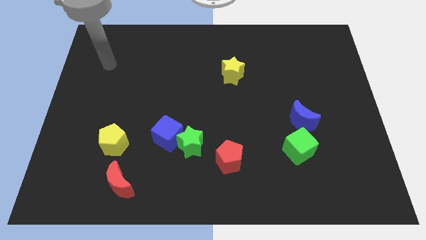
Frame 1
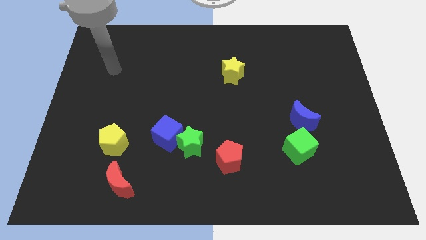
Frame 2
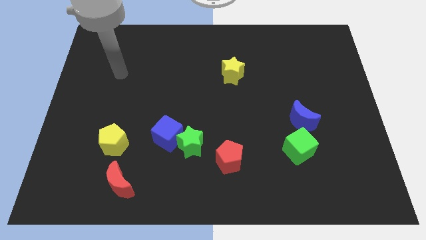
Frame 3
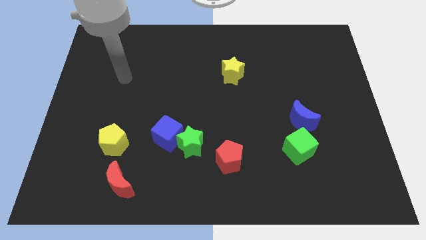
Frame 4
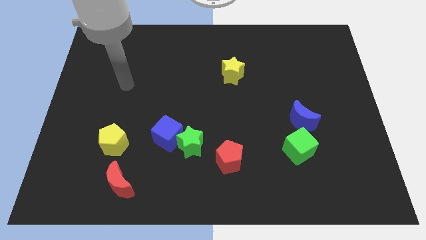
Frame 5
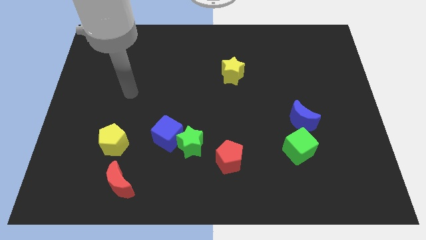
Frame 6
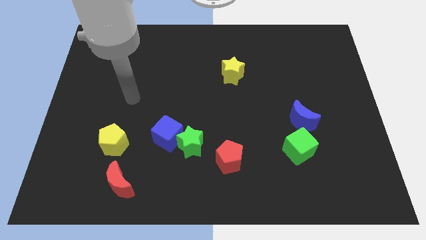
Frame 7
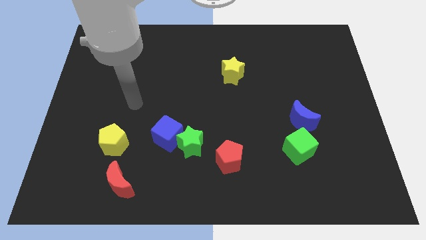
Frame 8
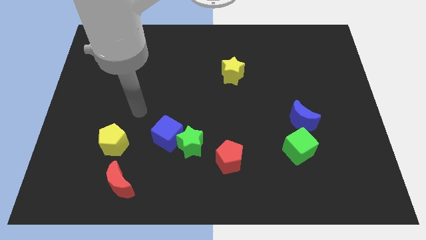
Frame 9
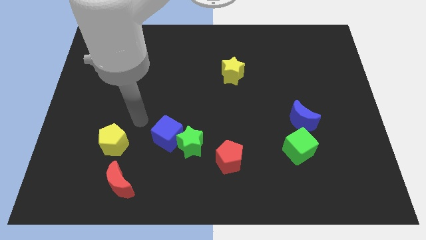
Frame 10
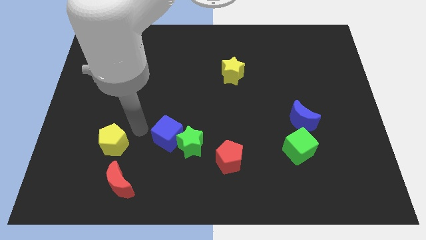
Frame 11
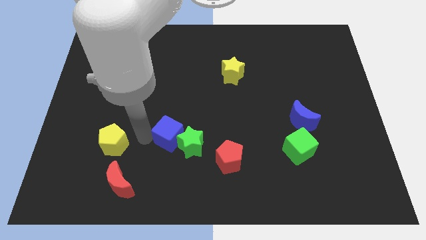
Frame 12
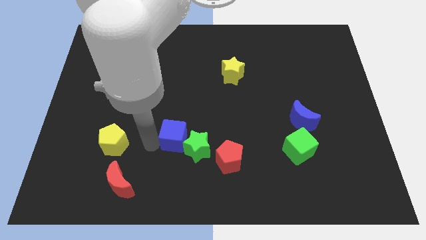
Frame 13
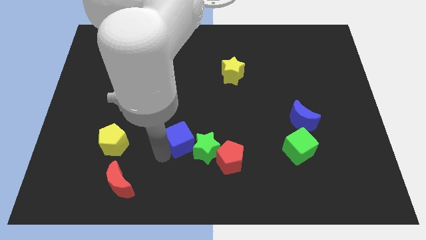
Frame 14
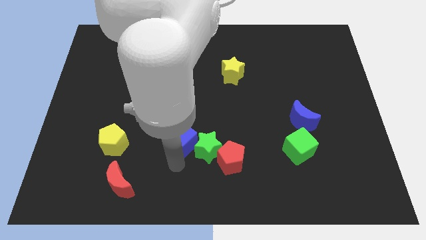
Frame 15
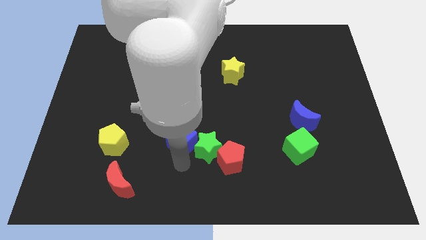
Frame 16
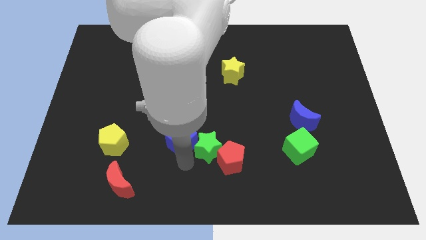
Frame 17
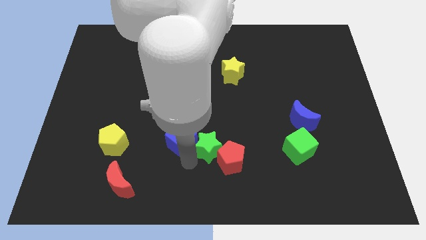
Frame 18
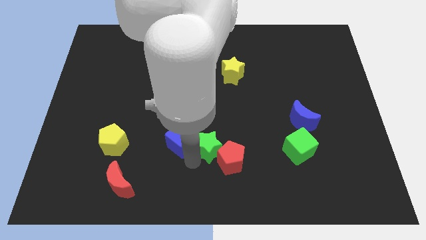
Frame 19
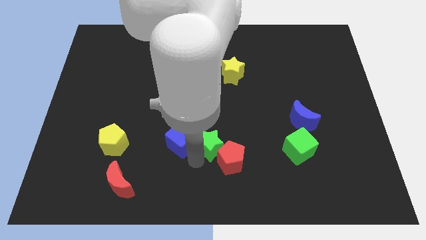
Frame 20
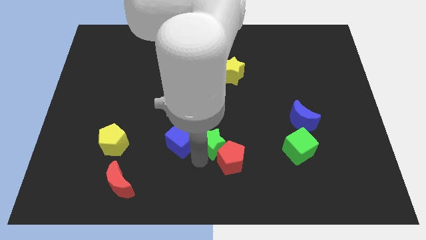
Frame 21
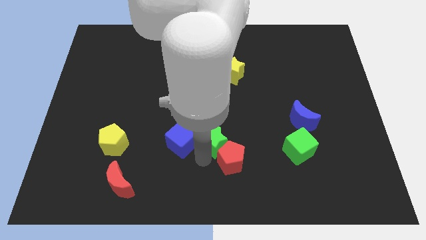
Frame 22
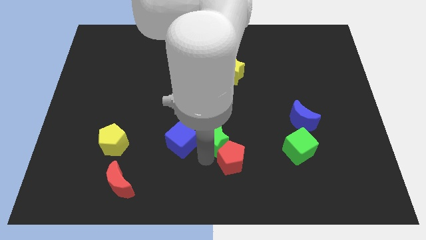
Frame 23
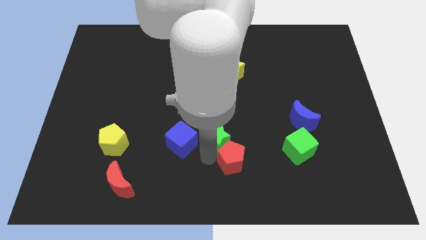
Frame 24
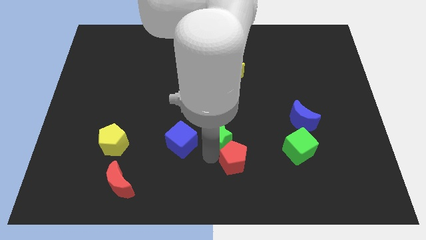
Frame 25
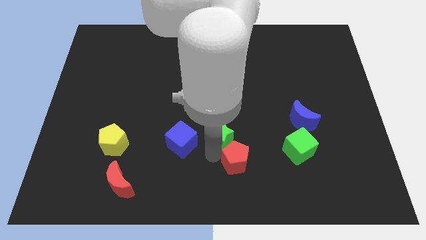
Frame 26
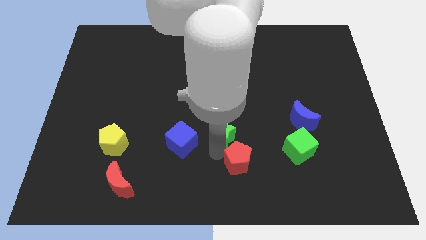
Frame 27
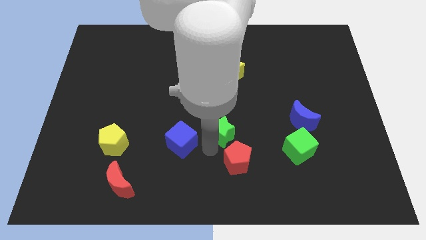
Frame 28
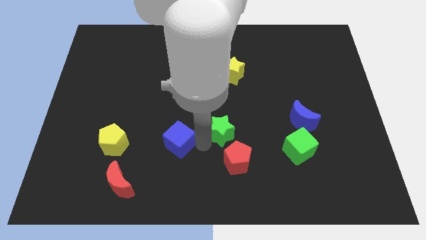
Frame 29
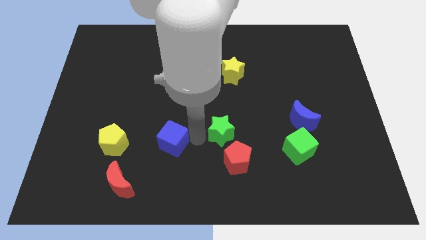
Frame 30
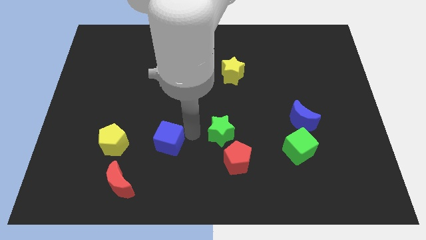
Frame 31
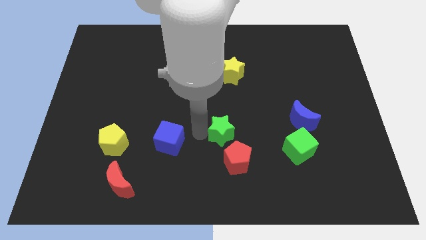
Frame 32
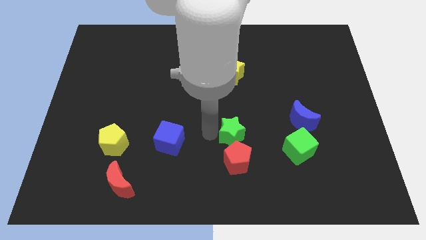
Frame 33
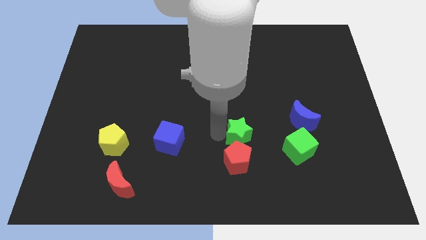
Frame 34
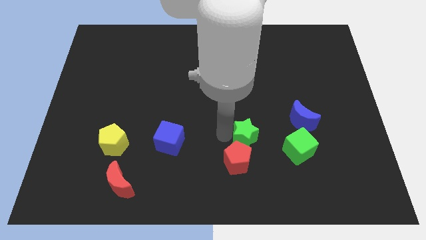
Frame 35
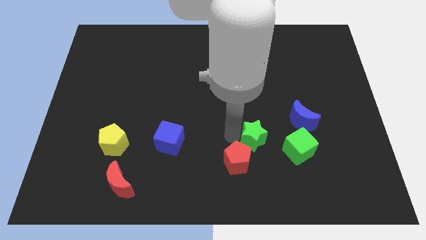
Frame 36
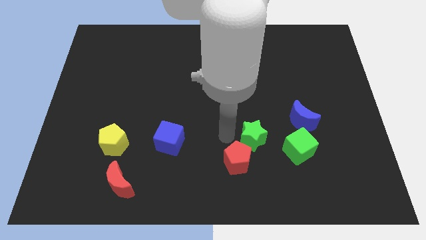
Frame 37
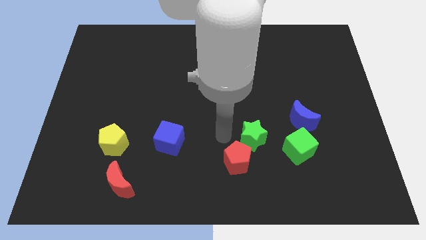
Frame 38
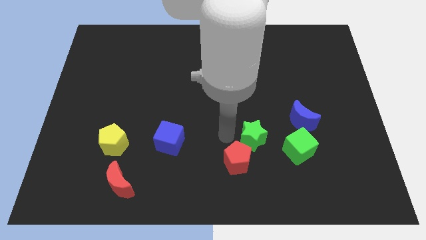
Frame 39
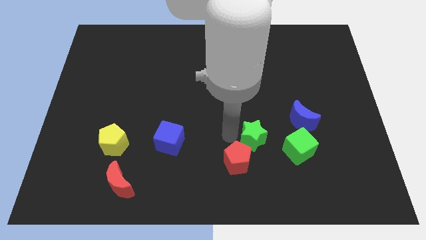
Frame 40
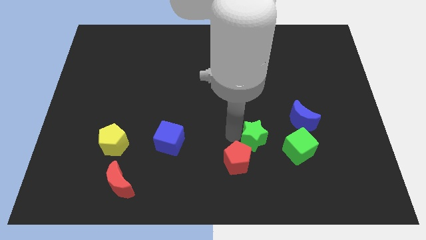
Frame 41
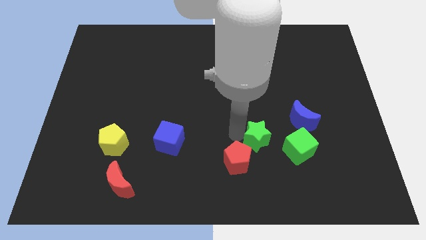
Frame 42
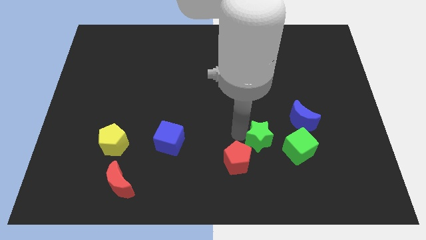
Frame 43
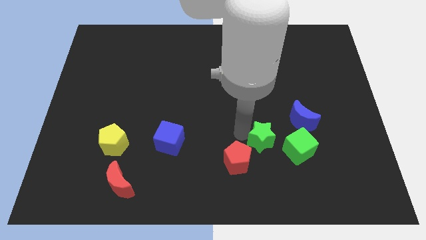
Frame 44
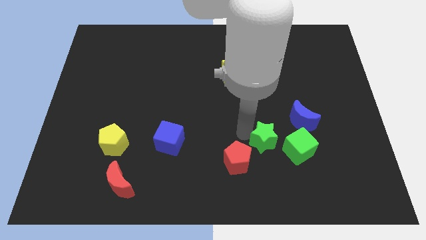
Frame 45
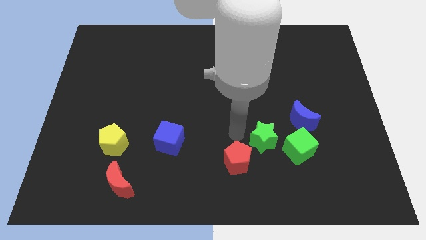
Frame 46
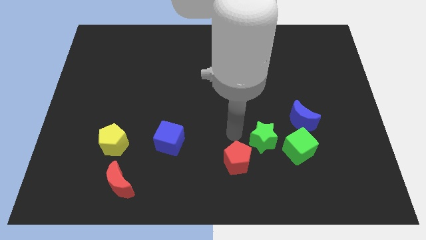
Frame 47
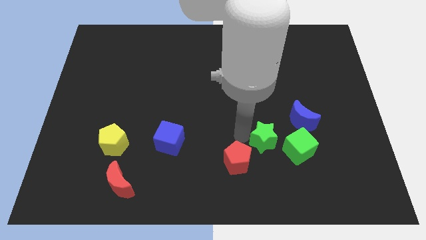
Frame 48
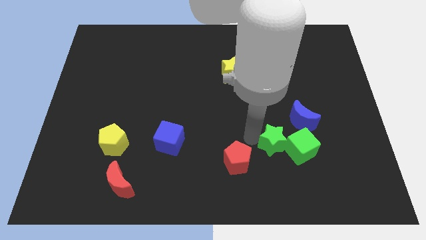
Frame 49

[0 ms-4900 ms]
slide the green star close to the green cube

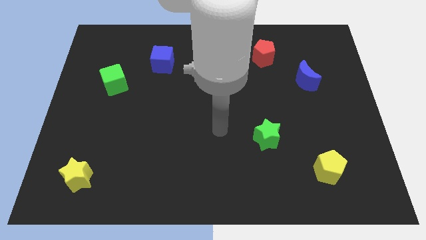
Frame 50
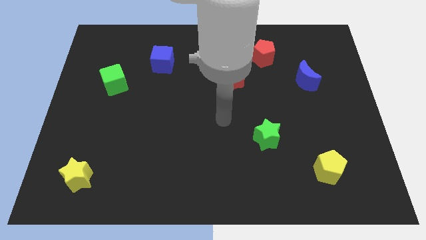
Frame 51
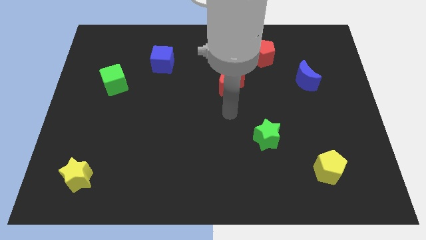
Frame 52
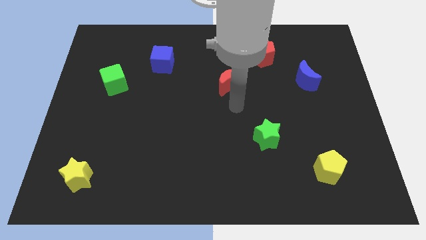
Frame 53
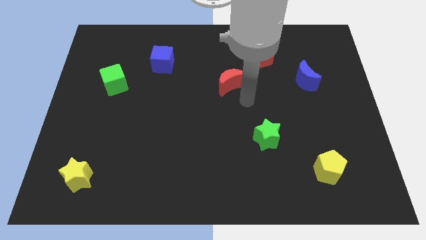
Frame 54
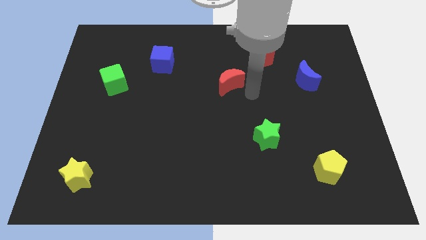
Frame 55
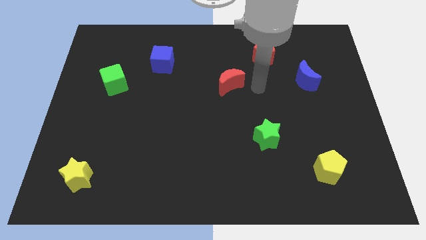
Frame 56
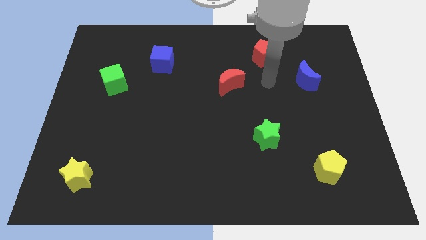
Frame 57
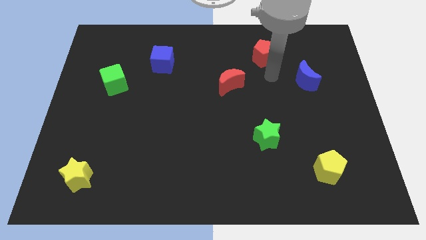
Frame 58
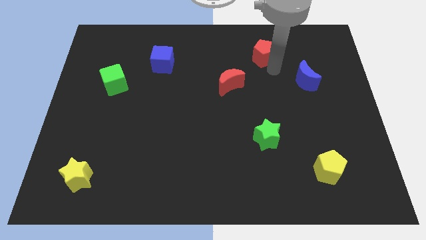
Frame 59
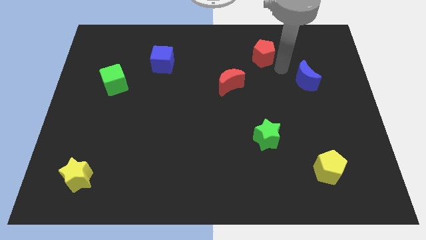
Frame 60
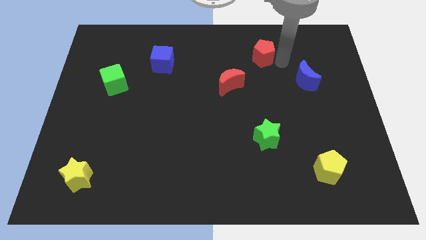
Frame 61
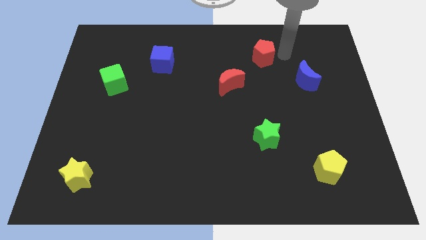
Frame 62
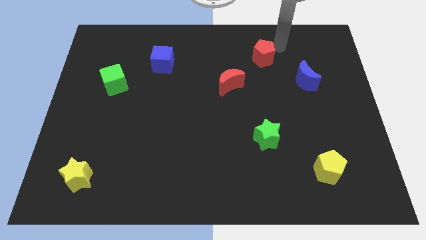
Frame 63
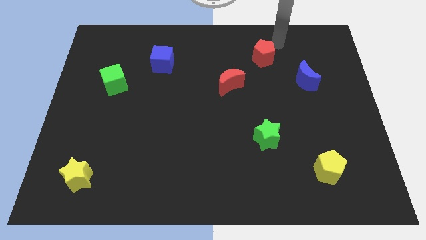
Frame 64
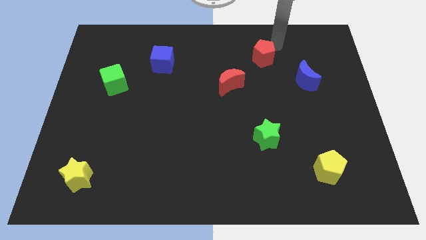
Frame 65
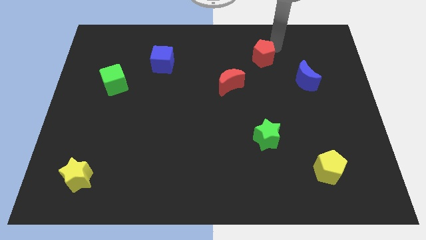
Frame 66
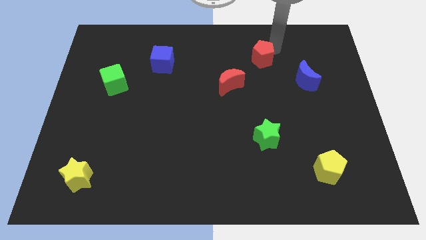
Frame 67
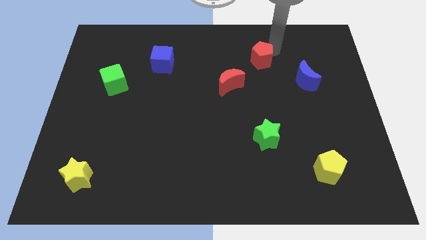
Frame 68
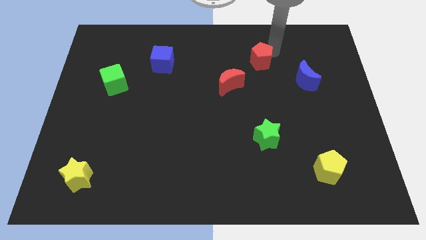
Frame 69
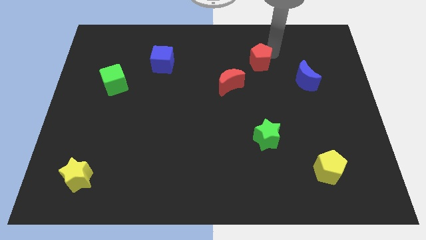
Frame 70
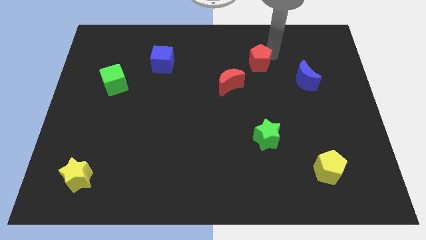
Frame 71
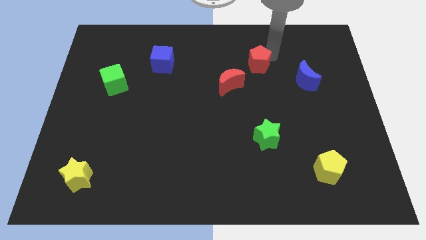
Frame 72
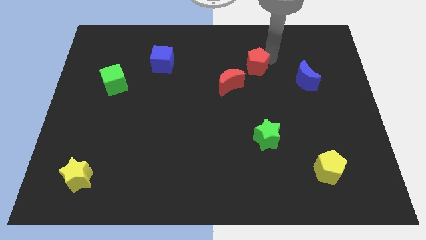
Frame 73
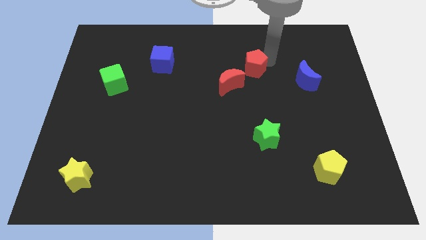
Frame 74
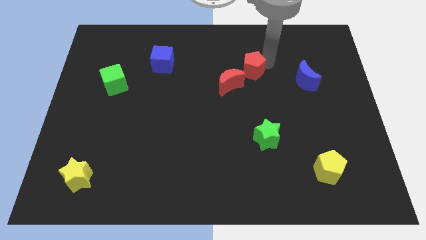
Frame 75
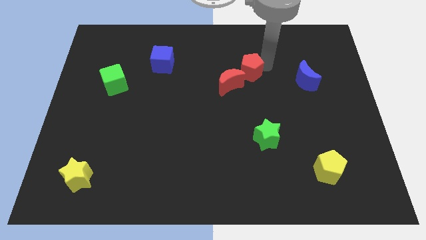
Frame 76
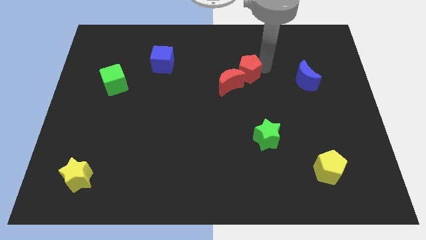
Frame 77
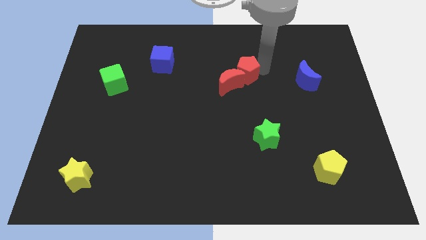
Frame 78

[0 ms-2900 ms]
move the red pentagon next to the red moon
